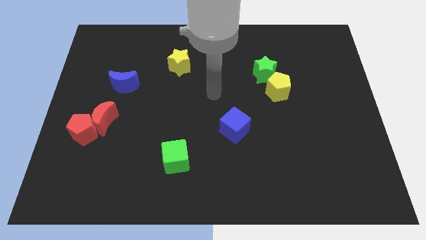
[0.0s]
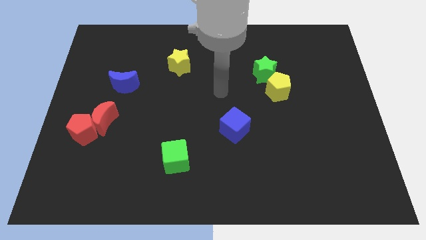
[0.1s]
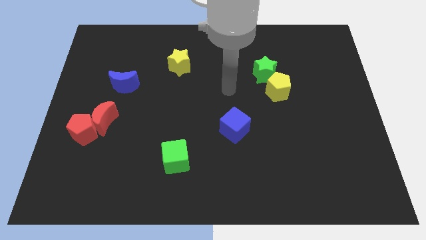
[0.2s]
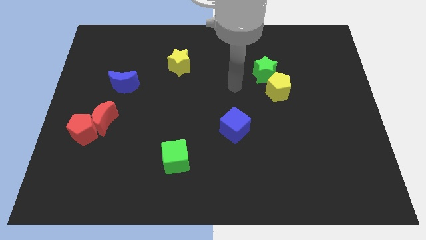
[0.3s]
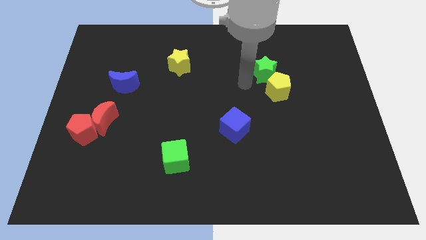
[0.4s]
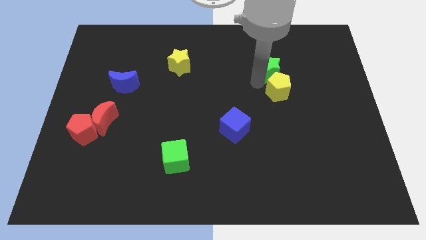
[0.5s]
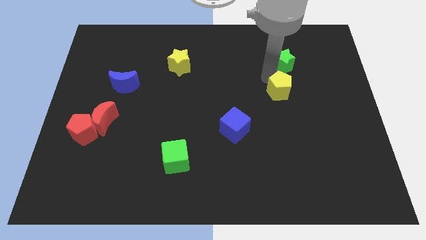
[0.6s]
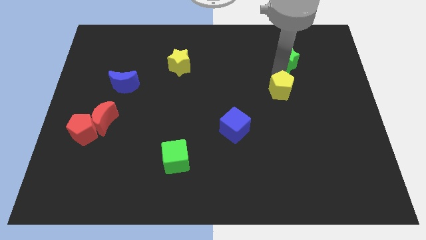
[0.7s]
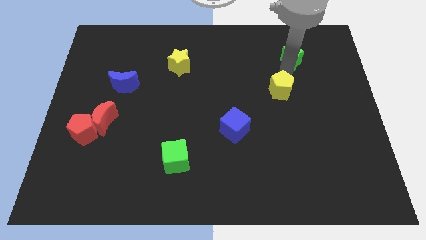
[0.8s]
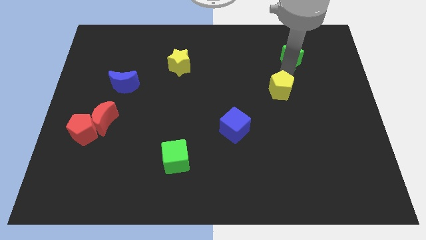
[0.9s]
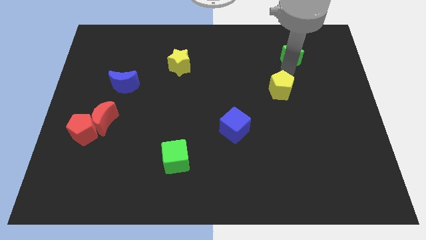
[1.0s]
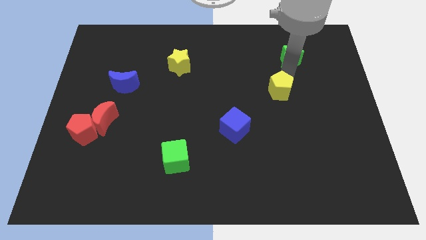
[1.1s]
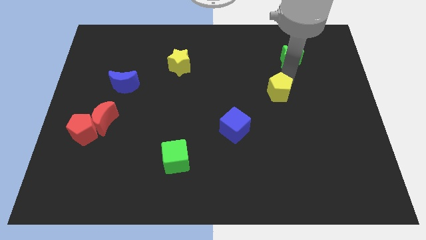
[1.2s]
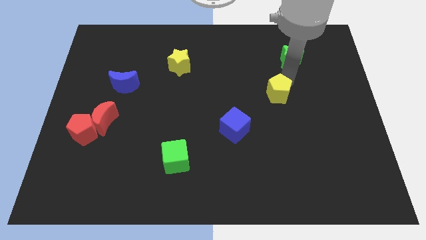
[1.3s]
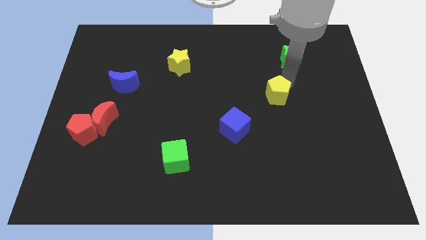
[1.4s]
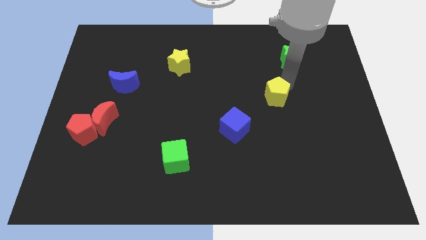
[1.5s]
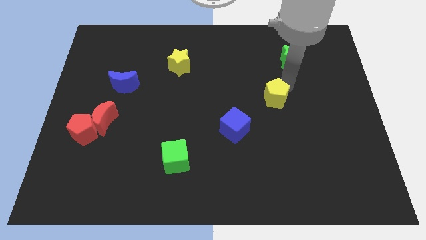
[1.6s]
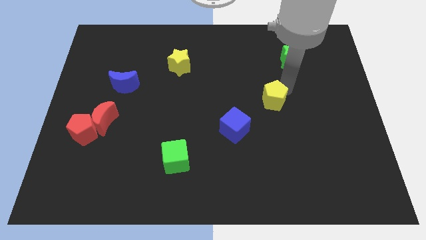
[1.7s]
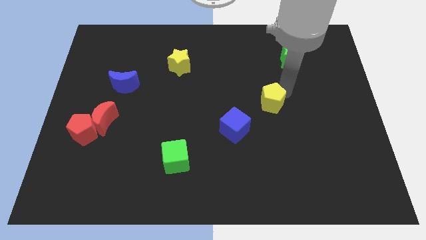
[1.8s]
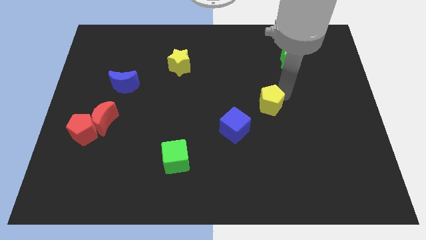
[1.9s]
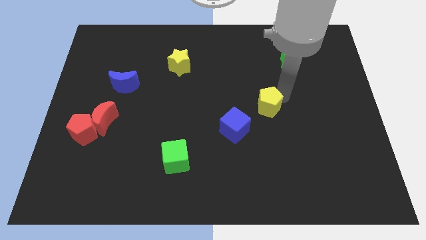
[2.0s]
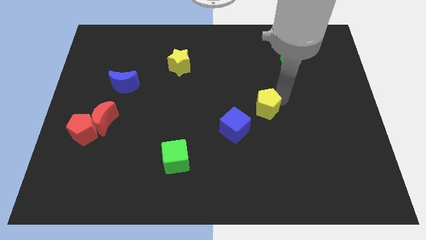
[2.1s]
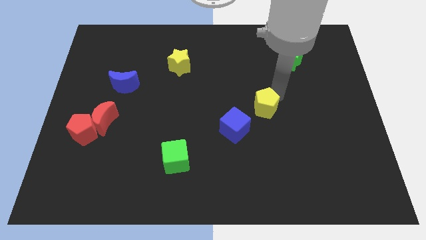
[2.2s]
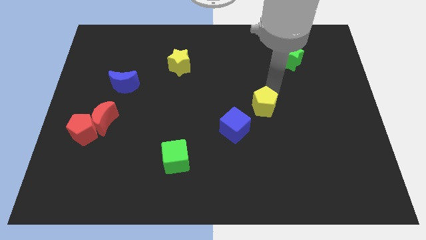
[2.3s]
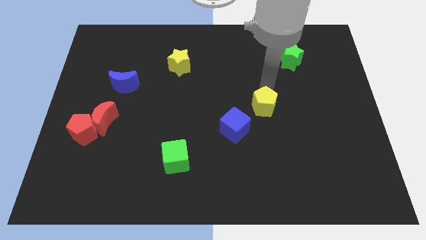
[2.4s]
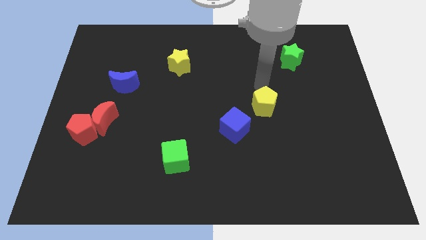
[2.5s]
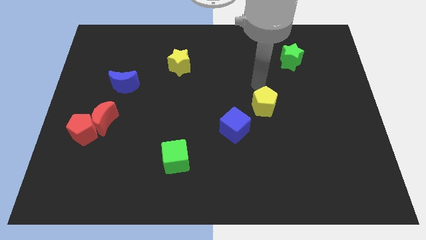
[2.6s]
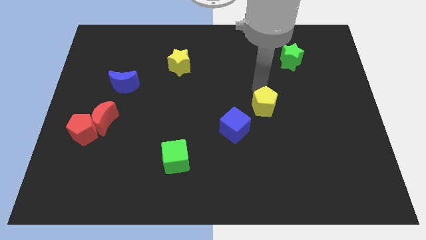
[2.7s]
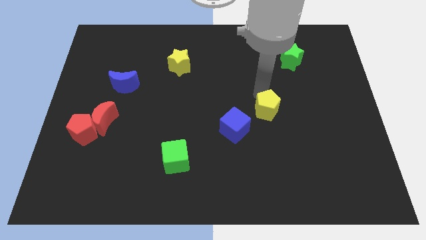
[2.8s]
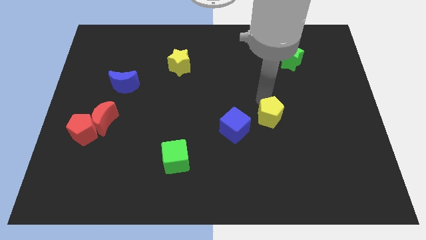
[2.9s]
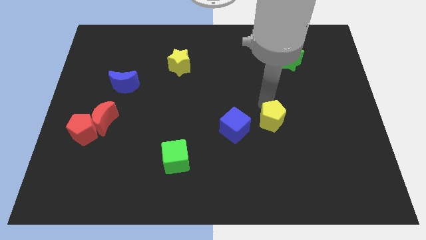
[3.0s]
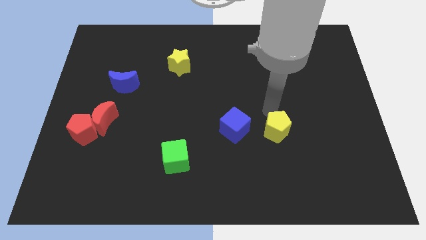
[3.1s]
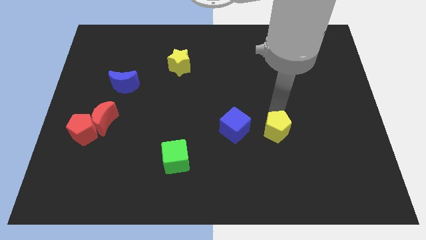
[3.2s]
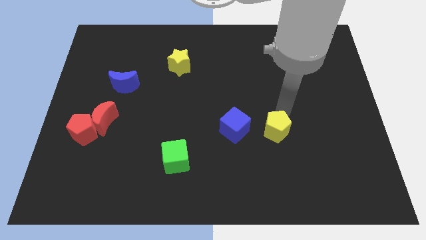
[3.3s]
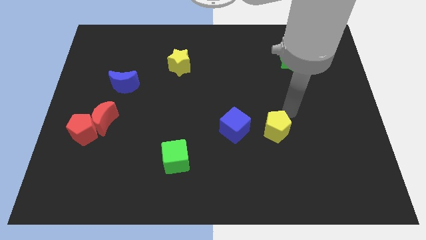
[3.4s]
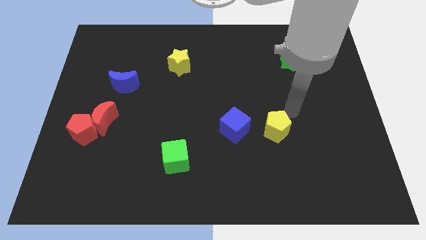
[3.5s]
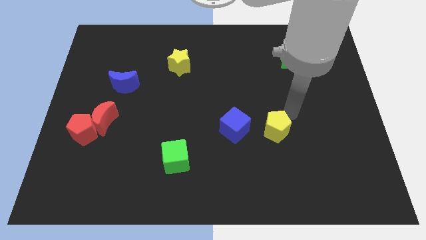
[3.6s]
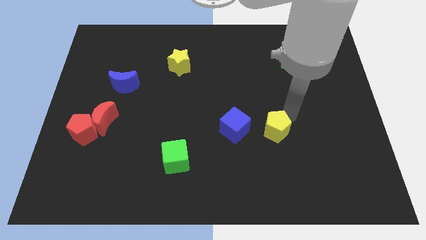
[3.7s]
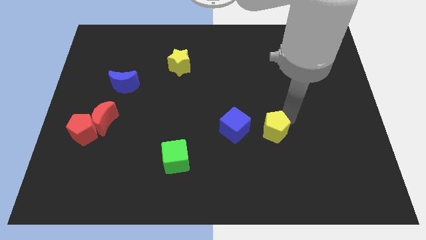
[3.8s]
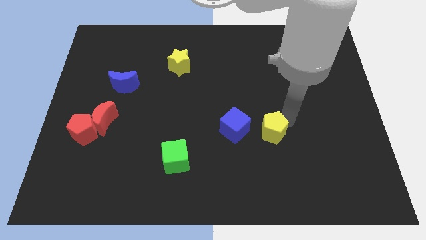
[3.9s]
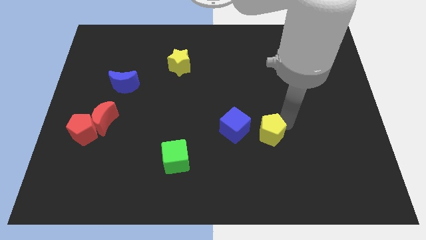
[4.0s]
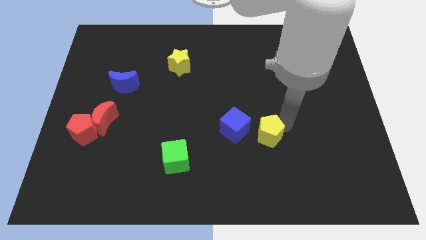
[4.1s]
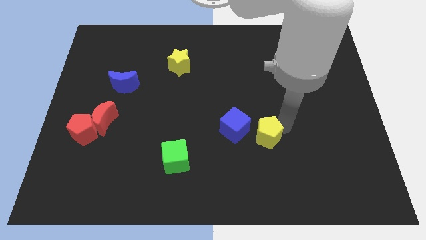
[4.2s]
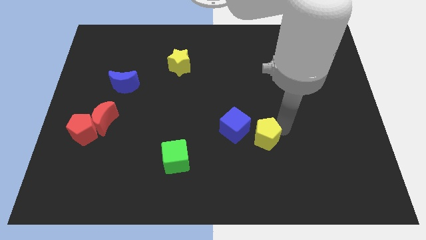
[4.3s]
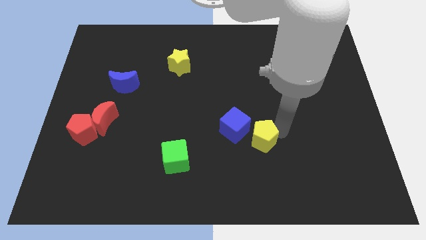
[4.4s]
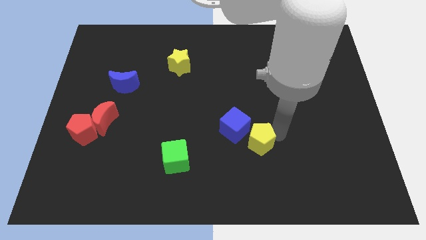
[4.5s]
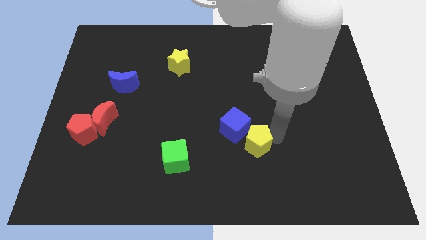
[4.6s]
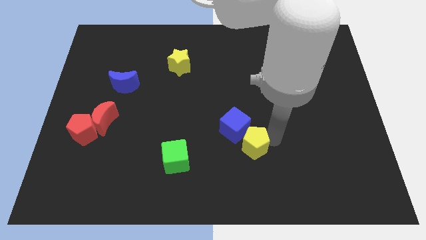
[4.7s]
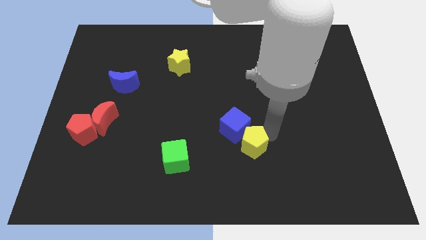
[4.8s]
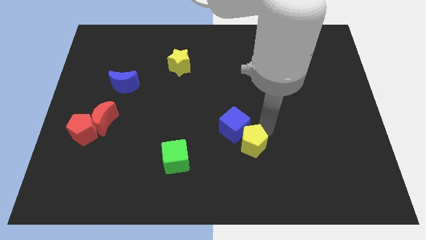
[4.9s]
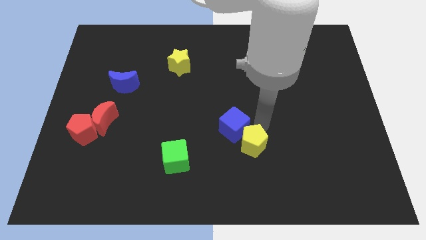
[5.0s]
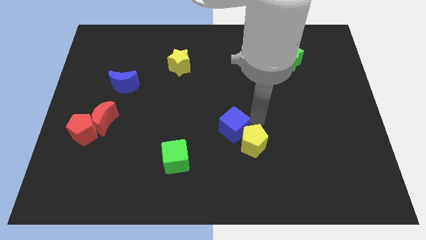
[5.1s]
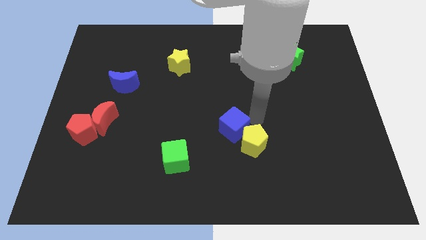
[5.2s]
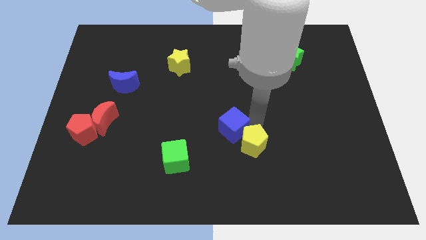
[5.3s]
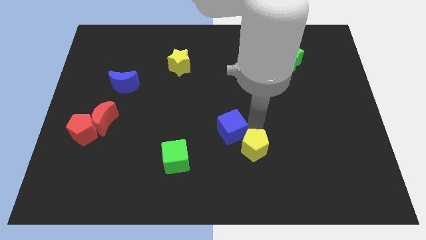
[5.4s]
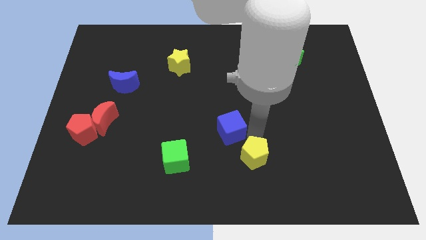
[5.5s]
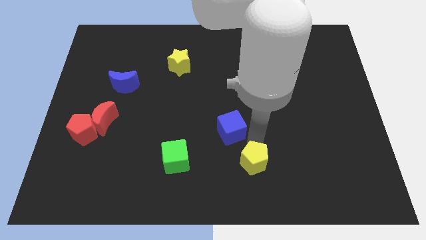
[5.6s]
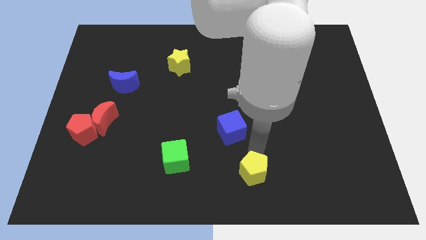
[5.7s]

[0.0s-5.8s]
put the yellow pentagon to the bottom side
